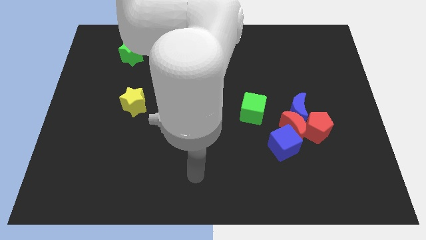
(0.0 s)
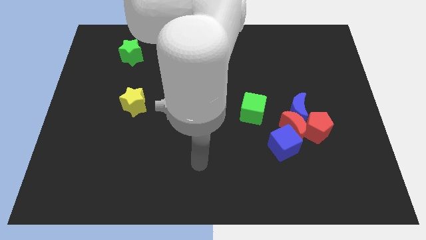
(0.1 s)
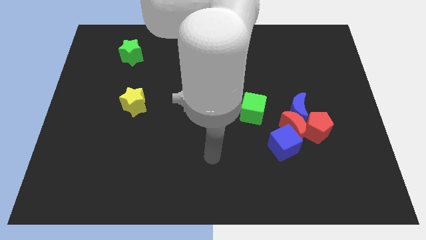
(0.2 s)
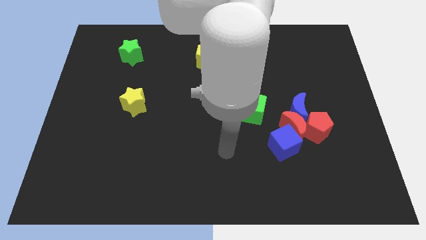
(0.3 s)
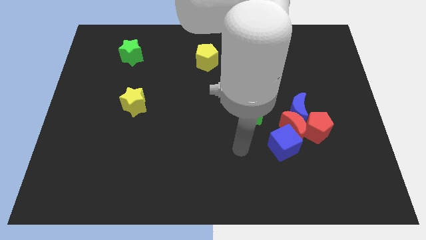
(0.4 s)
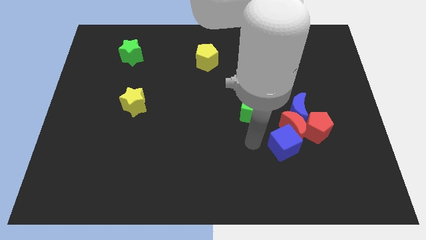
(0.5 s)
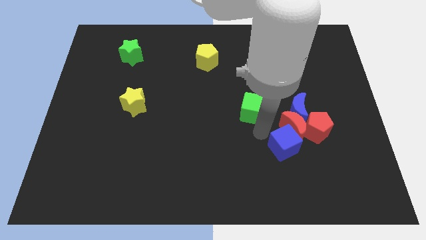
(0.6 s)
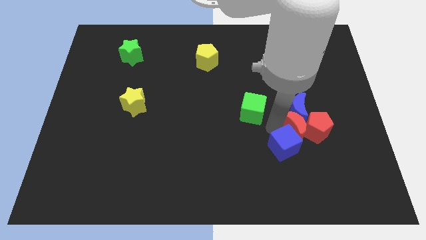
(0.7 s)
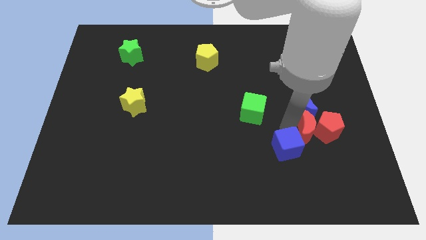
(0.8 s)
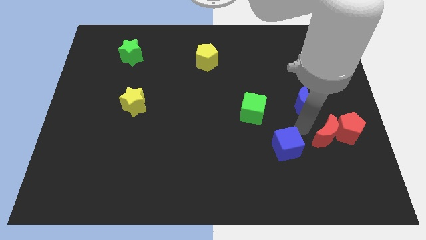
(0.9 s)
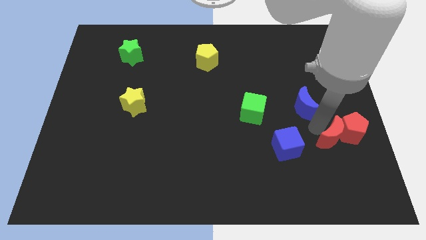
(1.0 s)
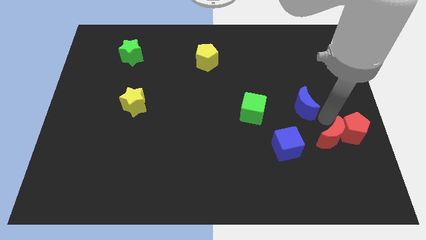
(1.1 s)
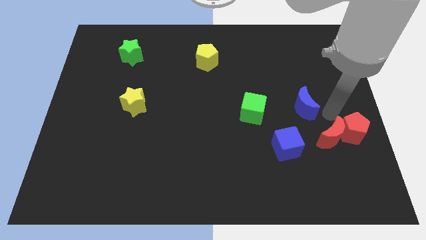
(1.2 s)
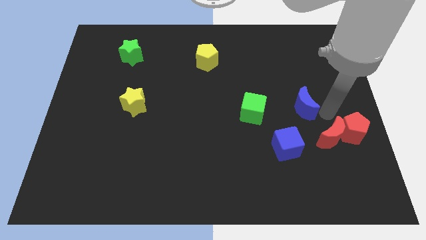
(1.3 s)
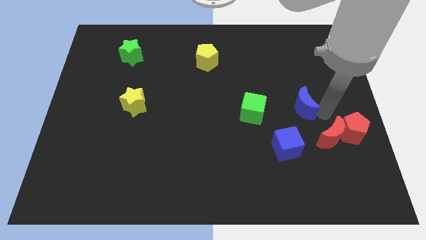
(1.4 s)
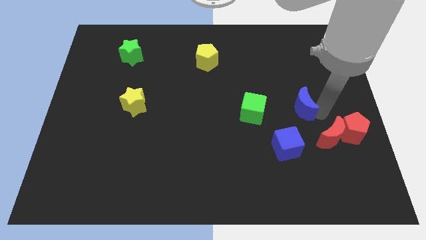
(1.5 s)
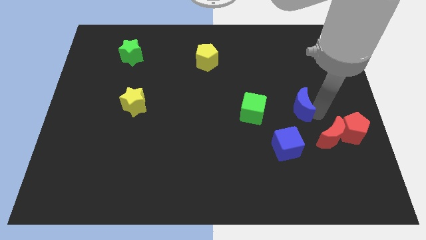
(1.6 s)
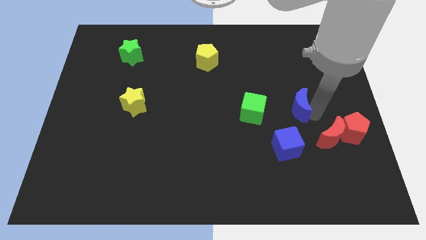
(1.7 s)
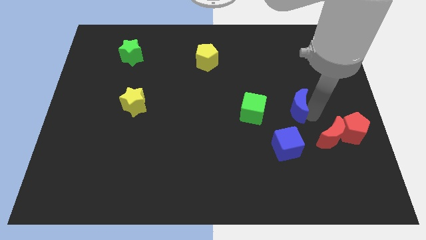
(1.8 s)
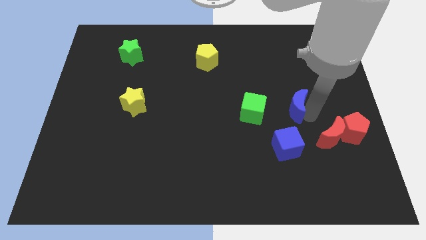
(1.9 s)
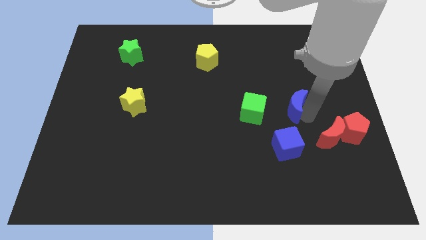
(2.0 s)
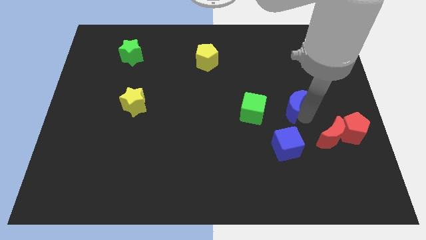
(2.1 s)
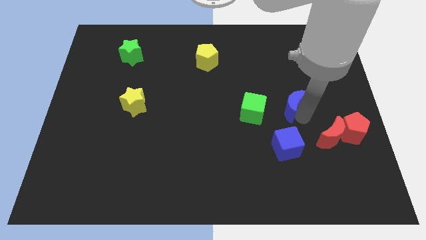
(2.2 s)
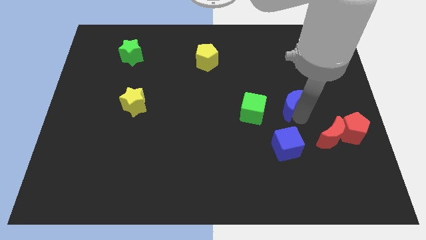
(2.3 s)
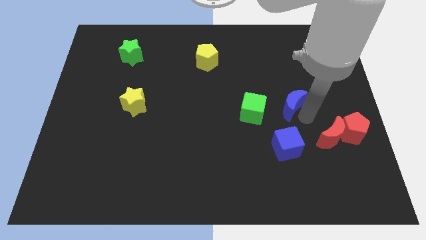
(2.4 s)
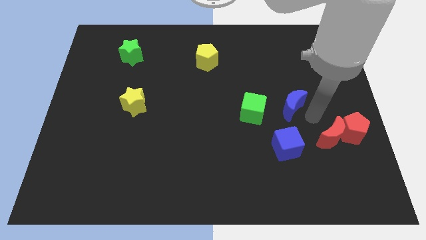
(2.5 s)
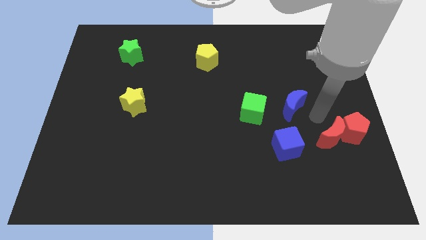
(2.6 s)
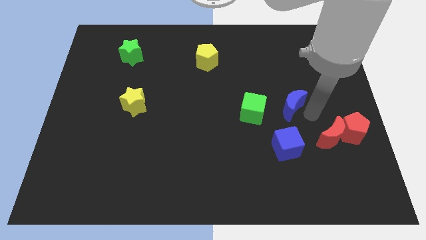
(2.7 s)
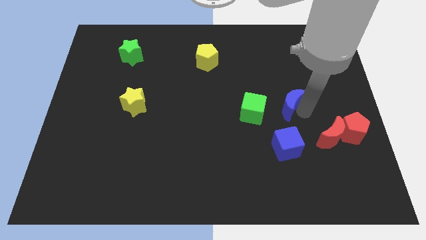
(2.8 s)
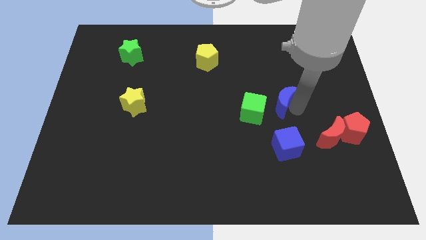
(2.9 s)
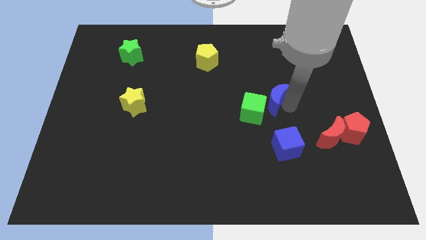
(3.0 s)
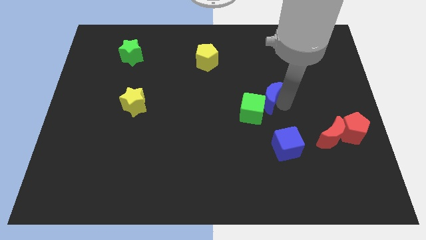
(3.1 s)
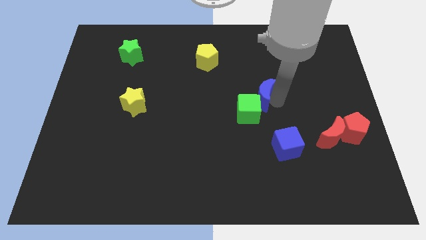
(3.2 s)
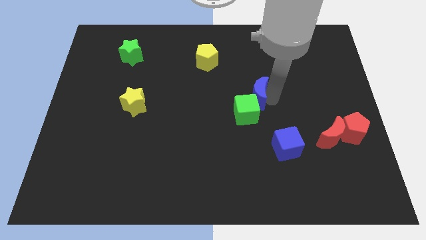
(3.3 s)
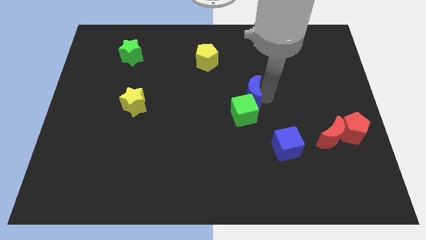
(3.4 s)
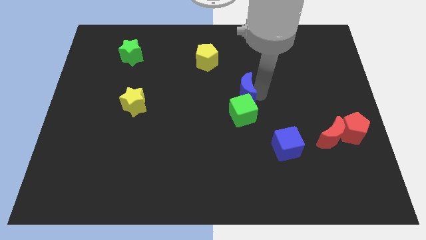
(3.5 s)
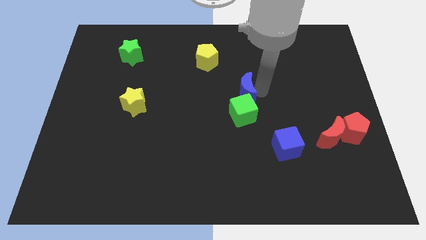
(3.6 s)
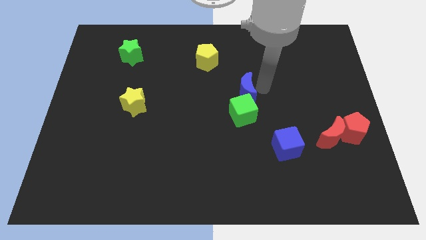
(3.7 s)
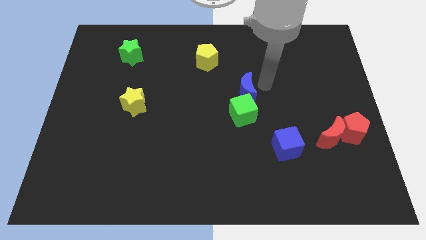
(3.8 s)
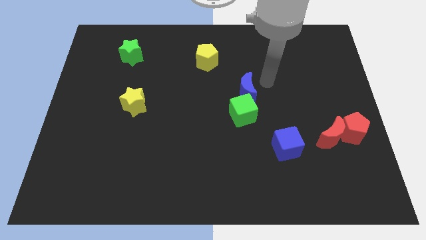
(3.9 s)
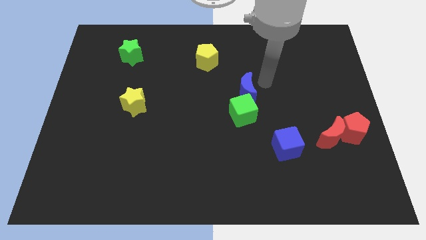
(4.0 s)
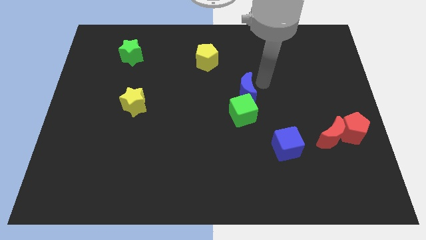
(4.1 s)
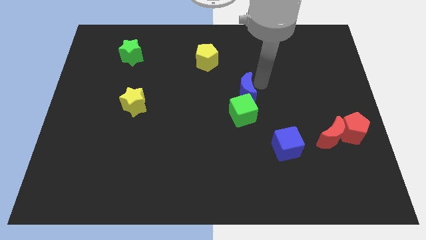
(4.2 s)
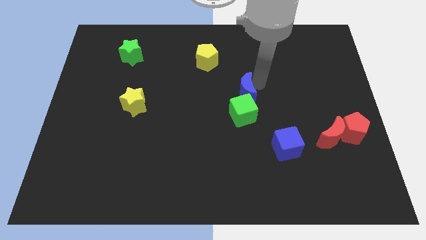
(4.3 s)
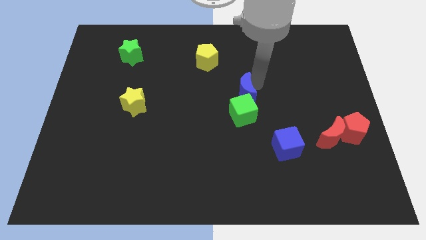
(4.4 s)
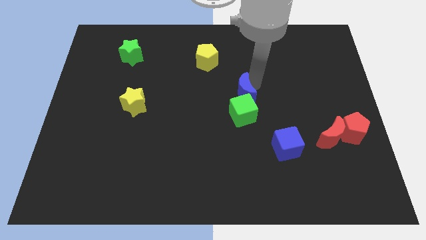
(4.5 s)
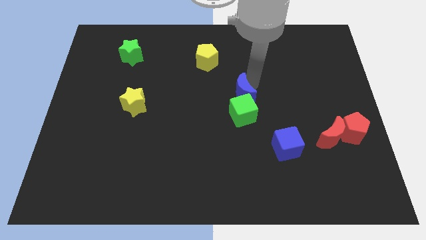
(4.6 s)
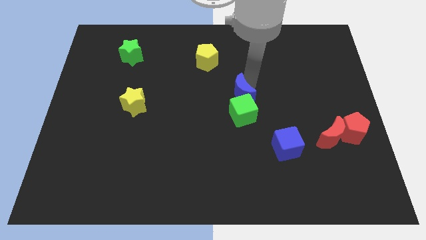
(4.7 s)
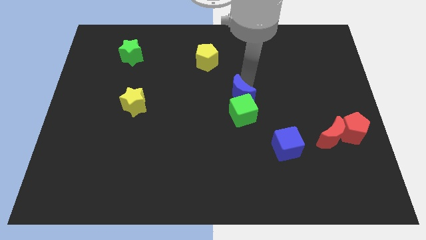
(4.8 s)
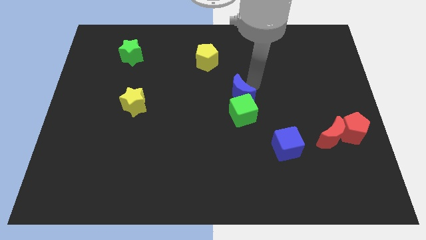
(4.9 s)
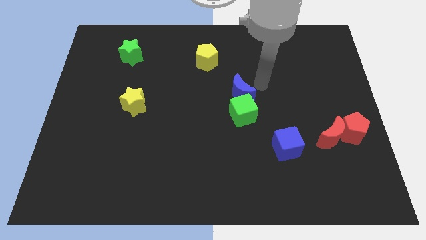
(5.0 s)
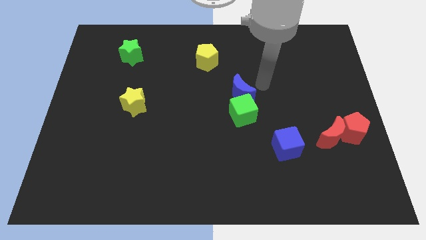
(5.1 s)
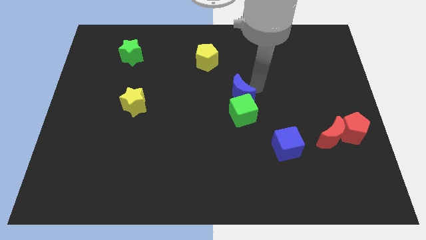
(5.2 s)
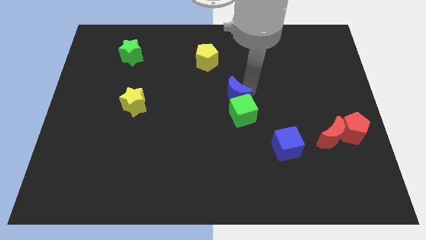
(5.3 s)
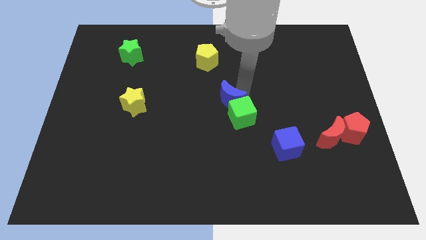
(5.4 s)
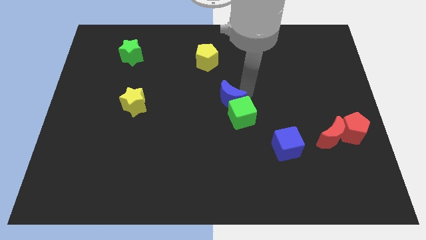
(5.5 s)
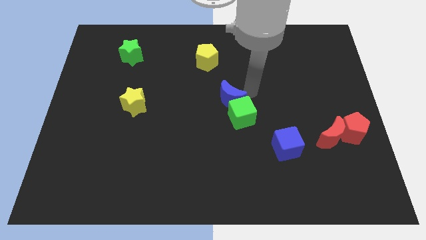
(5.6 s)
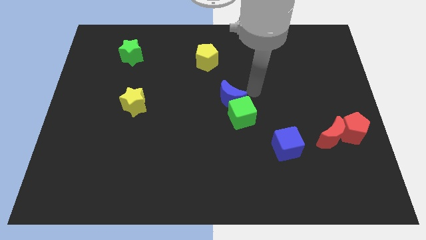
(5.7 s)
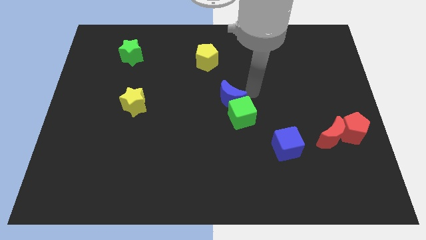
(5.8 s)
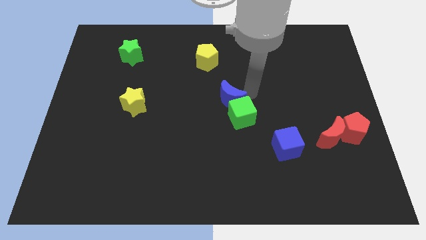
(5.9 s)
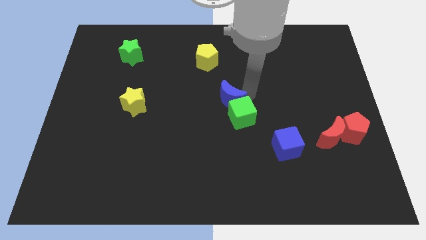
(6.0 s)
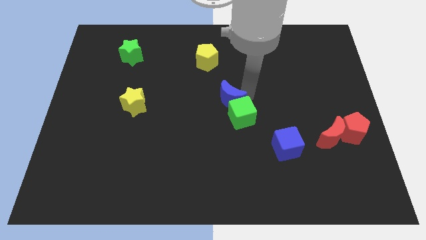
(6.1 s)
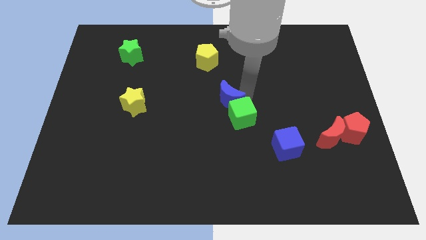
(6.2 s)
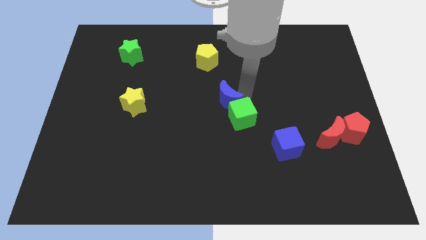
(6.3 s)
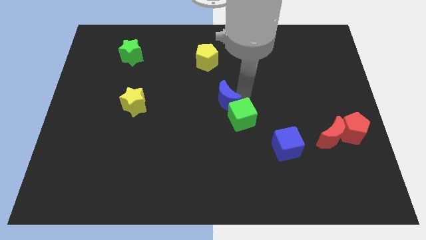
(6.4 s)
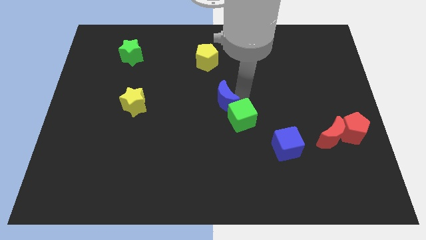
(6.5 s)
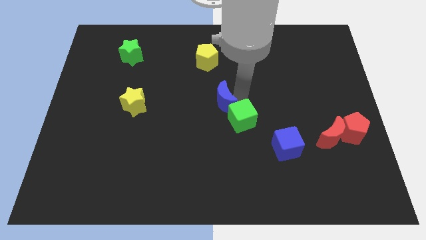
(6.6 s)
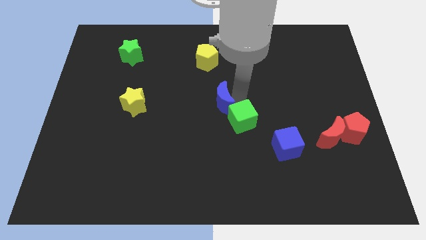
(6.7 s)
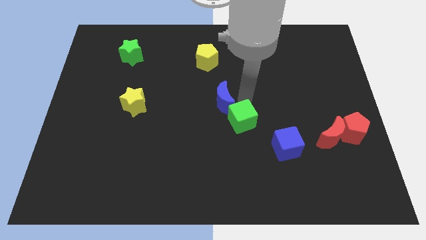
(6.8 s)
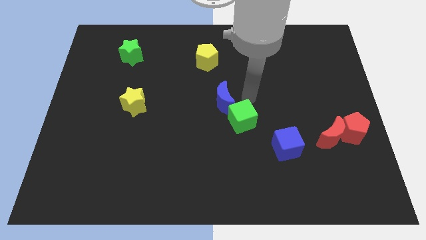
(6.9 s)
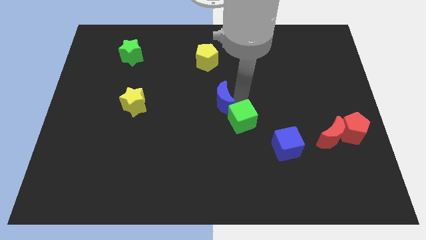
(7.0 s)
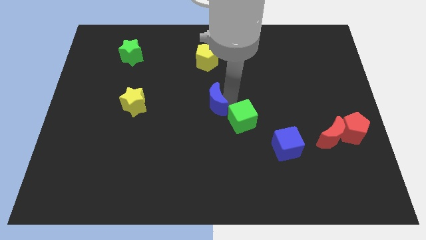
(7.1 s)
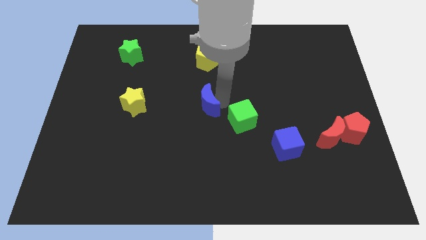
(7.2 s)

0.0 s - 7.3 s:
push the blue moon to the left

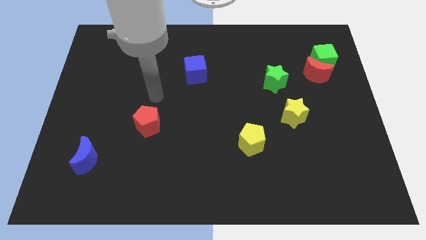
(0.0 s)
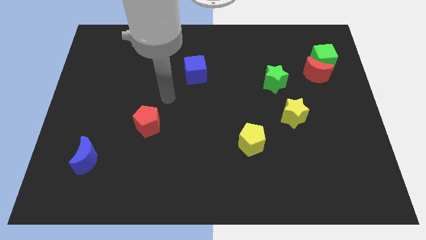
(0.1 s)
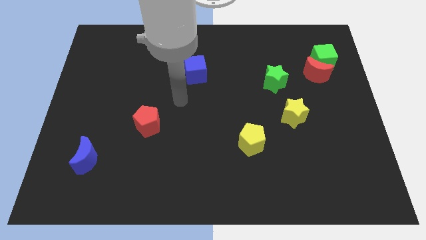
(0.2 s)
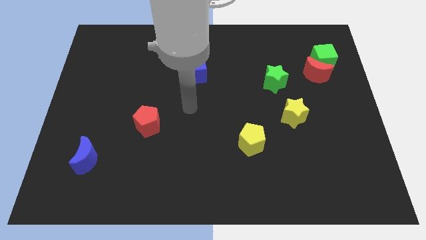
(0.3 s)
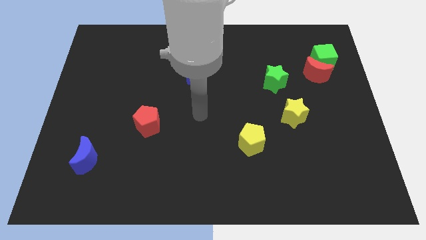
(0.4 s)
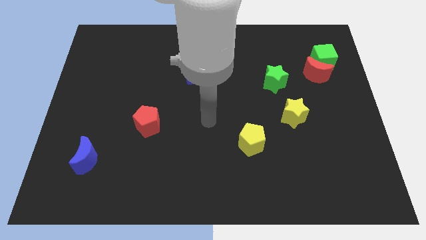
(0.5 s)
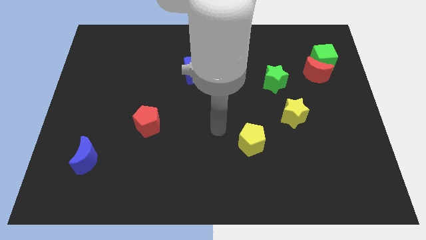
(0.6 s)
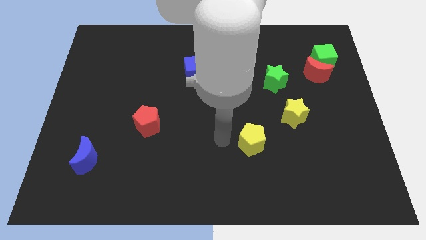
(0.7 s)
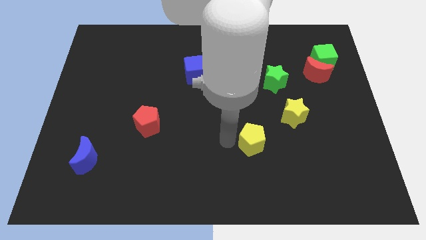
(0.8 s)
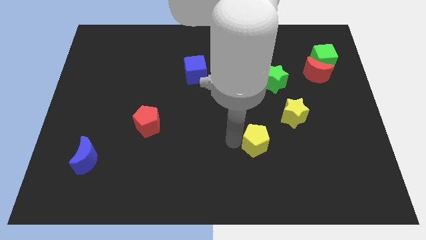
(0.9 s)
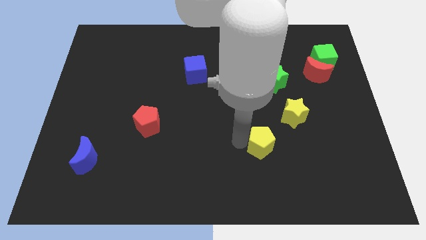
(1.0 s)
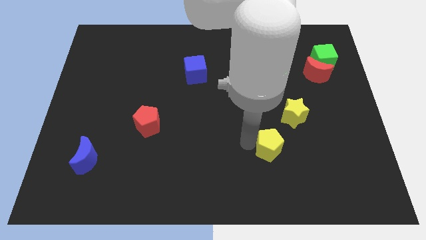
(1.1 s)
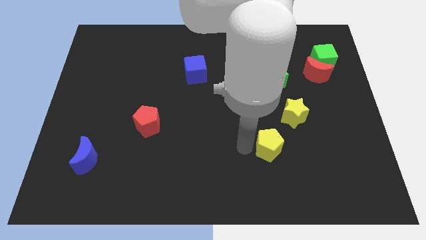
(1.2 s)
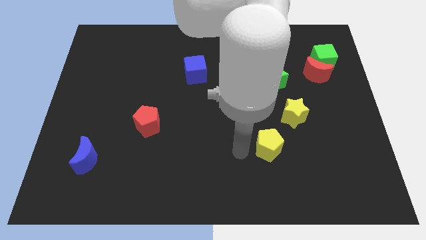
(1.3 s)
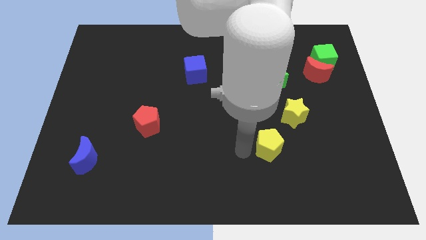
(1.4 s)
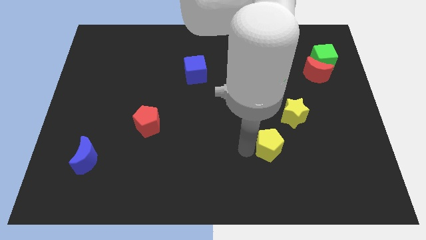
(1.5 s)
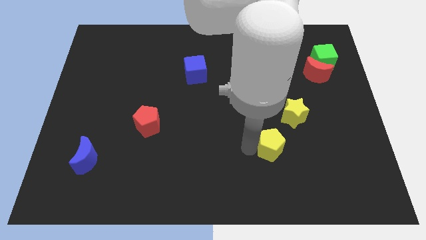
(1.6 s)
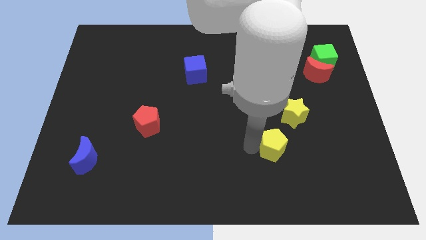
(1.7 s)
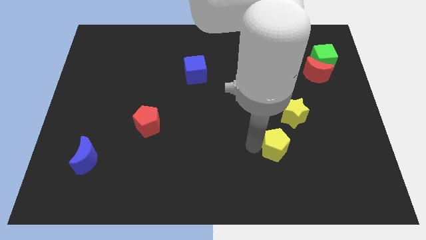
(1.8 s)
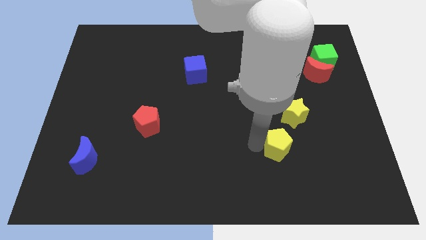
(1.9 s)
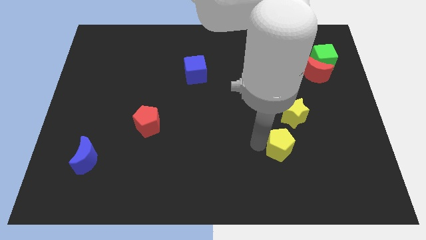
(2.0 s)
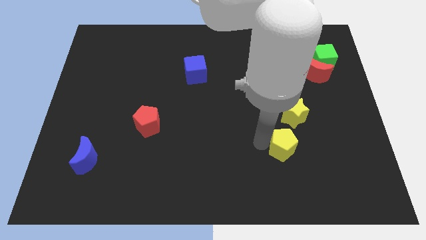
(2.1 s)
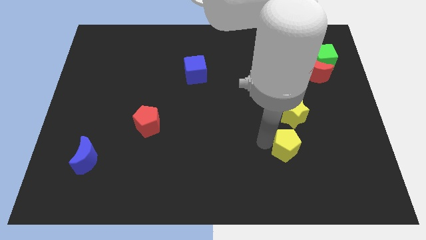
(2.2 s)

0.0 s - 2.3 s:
move the yellow pentagon to the right slightly
